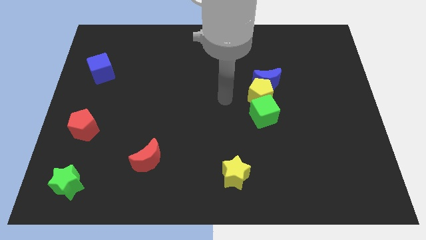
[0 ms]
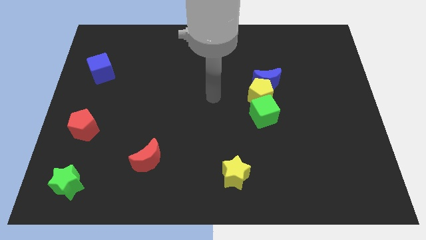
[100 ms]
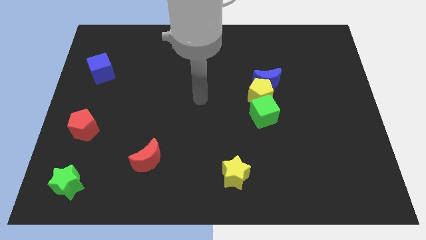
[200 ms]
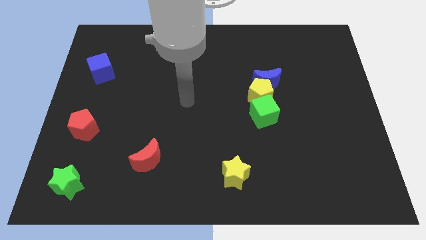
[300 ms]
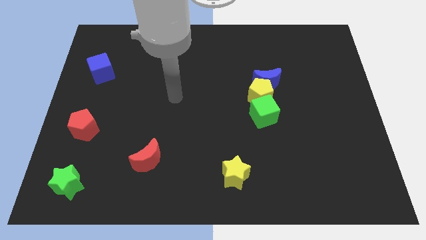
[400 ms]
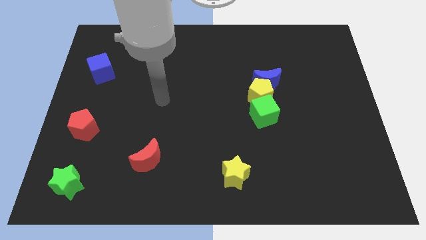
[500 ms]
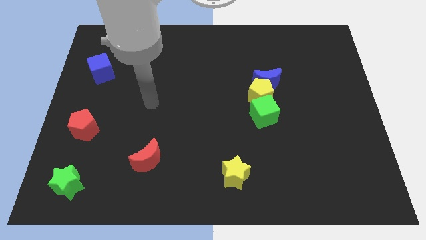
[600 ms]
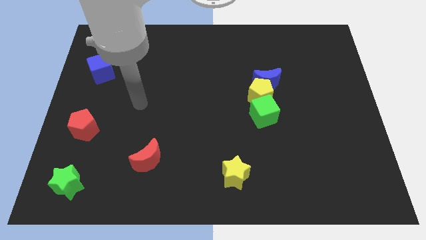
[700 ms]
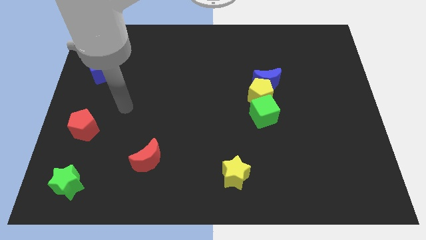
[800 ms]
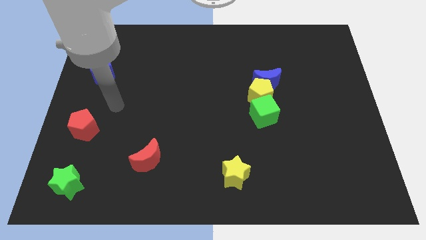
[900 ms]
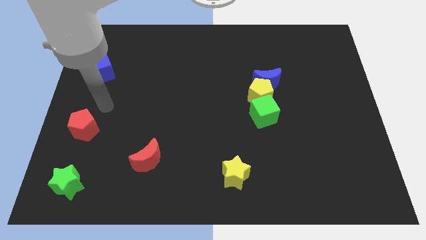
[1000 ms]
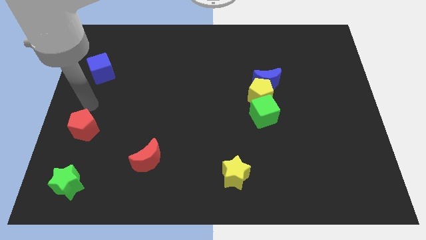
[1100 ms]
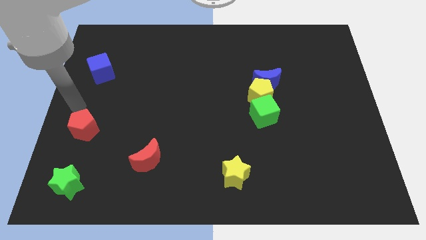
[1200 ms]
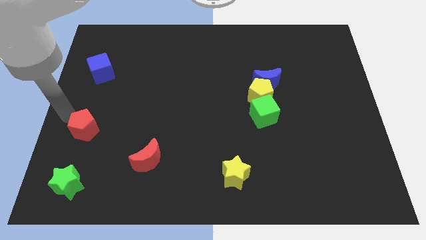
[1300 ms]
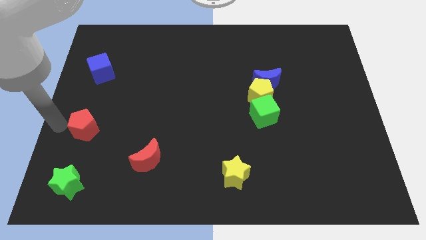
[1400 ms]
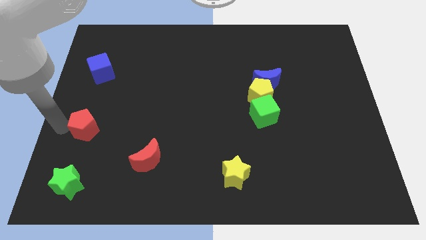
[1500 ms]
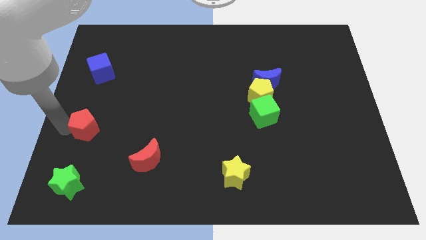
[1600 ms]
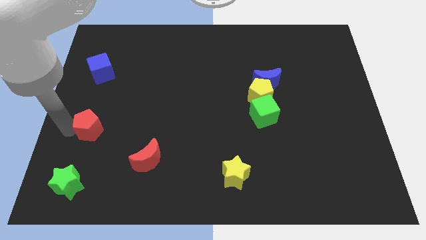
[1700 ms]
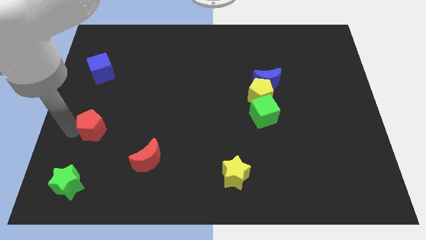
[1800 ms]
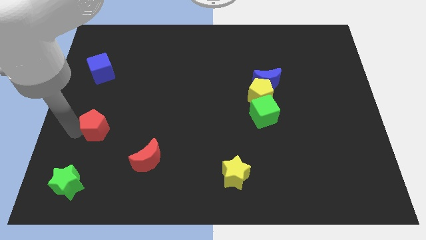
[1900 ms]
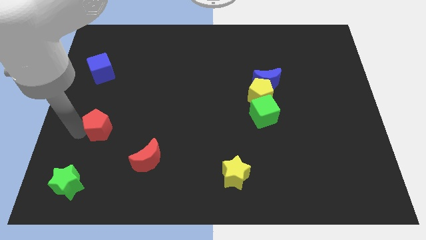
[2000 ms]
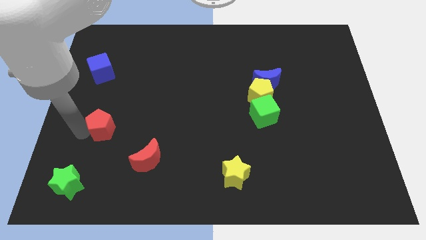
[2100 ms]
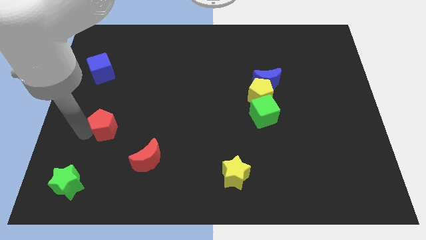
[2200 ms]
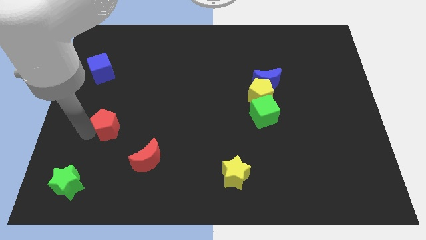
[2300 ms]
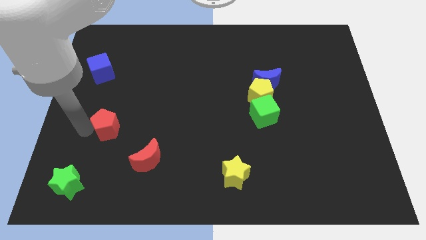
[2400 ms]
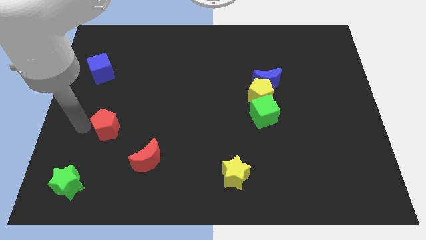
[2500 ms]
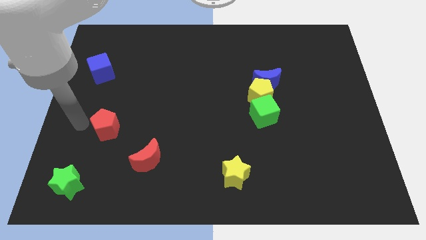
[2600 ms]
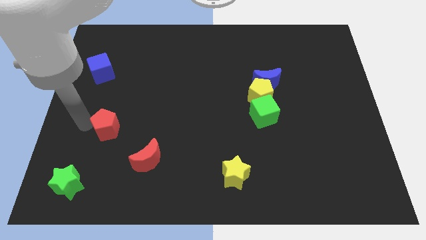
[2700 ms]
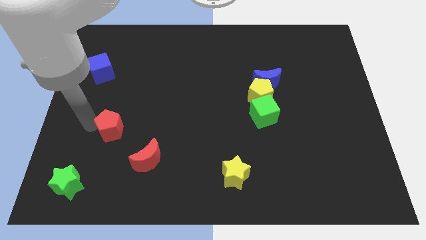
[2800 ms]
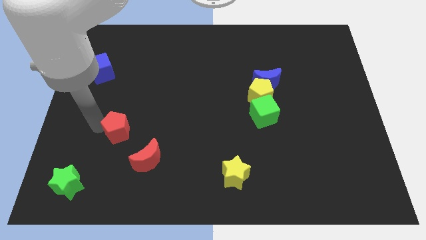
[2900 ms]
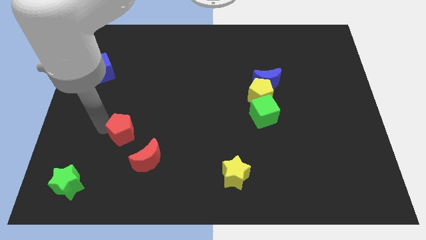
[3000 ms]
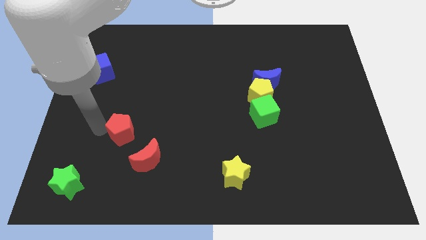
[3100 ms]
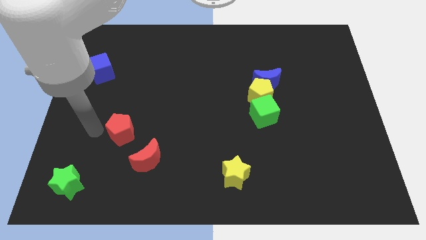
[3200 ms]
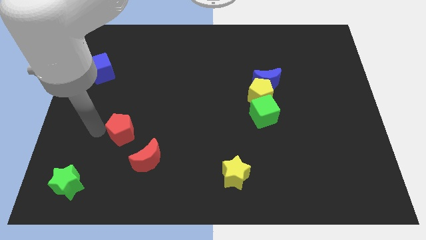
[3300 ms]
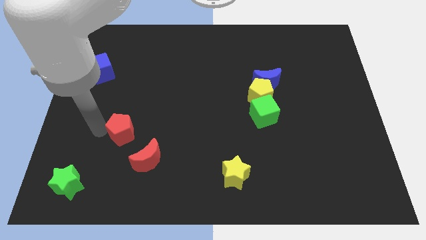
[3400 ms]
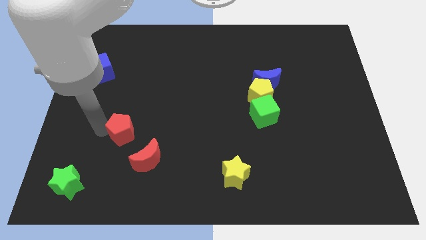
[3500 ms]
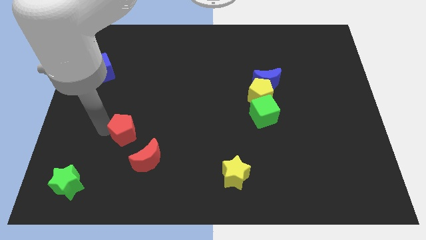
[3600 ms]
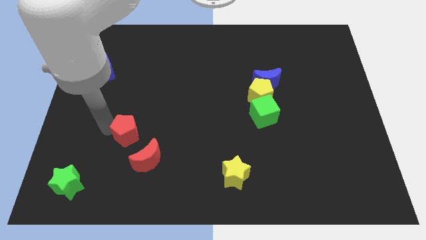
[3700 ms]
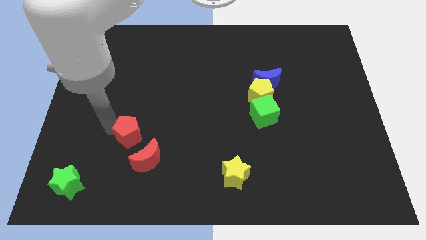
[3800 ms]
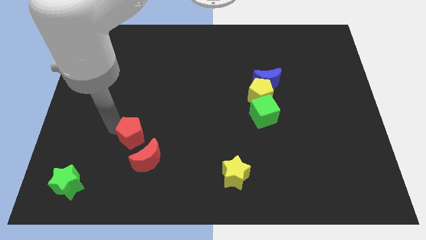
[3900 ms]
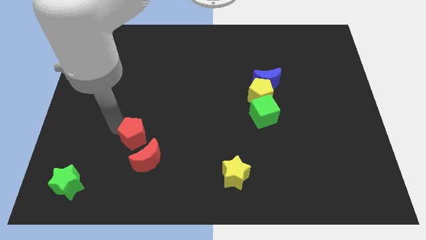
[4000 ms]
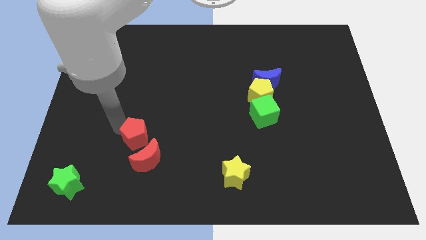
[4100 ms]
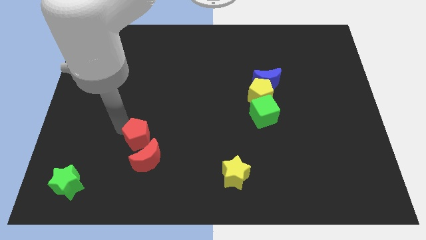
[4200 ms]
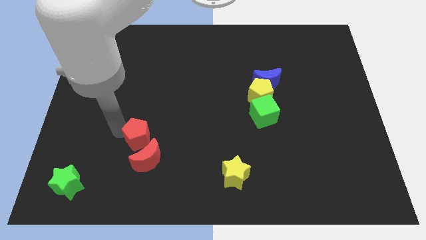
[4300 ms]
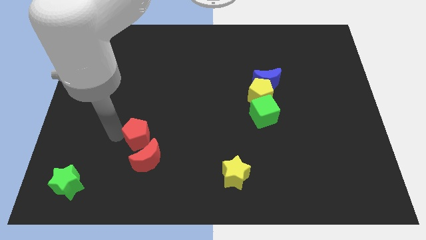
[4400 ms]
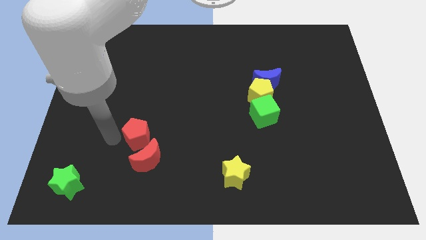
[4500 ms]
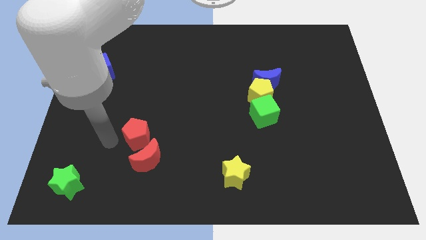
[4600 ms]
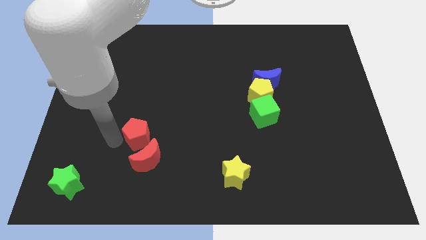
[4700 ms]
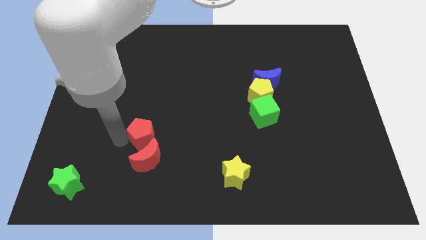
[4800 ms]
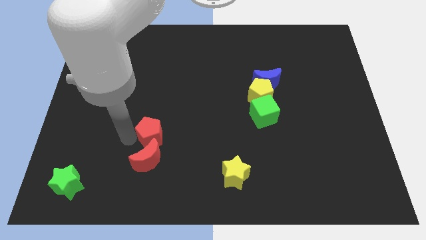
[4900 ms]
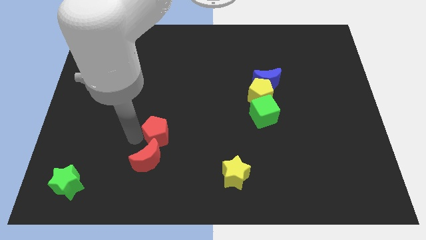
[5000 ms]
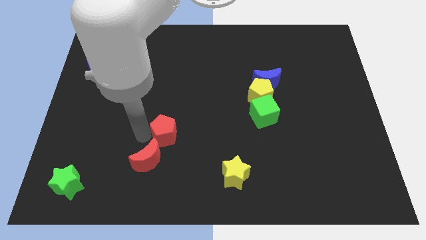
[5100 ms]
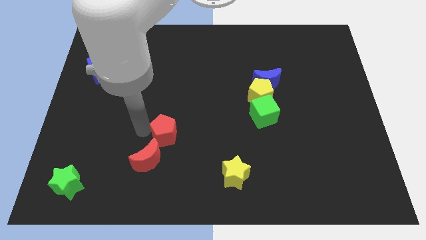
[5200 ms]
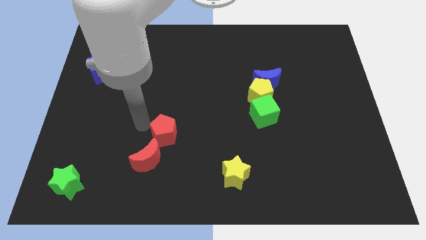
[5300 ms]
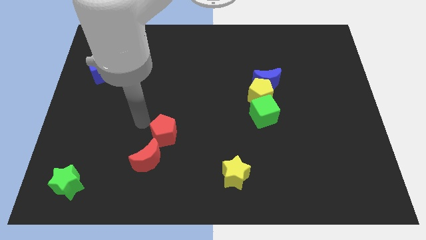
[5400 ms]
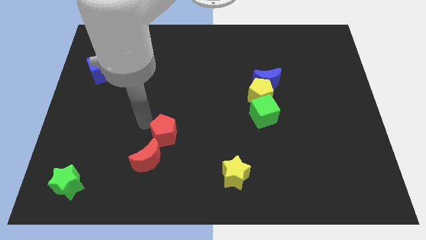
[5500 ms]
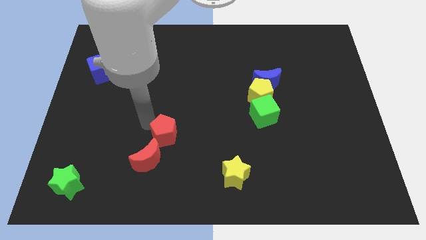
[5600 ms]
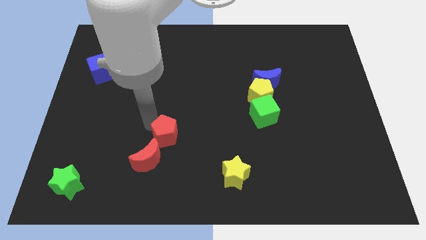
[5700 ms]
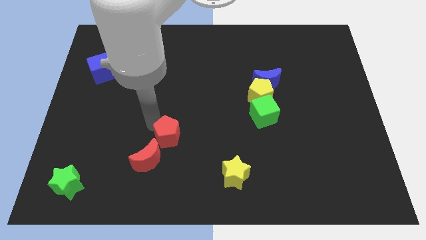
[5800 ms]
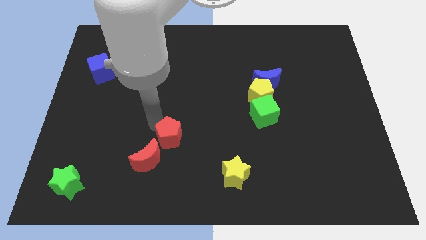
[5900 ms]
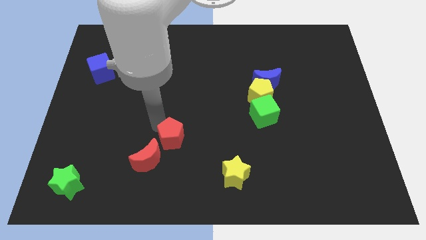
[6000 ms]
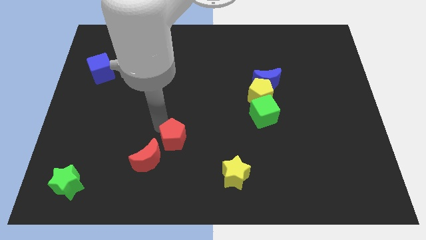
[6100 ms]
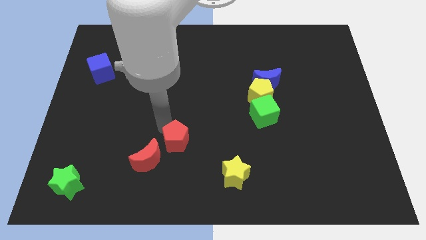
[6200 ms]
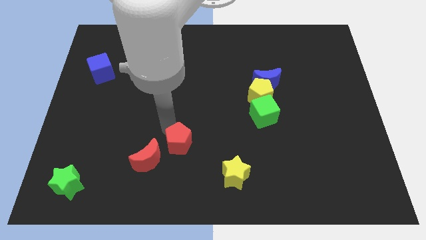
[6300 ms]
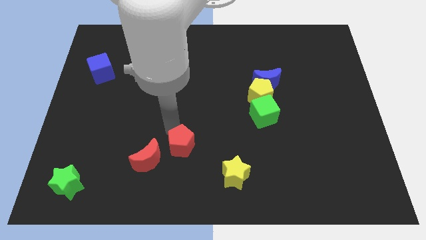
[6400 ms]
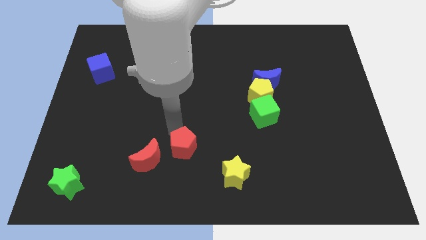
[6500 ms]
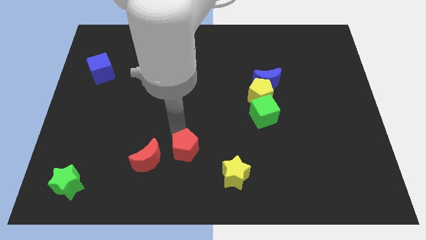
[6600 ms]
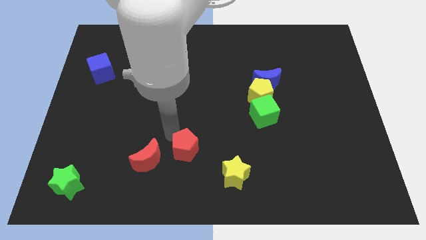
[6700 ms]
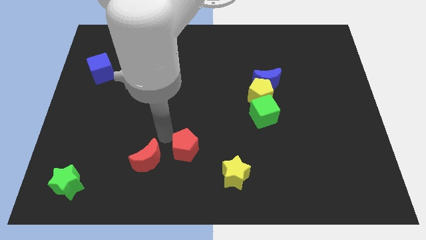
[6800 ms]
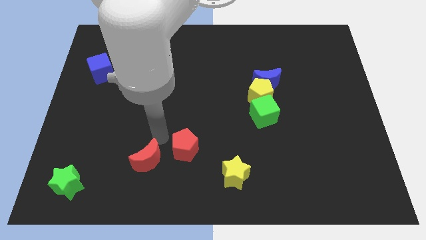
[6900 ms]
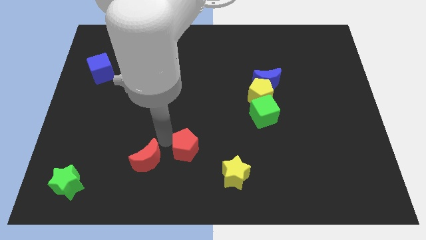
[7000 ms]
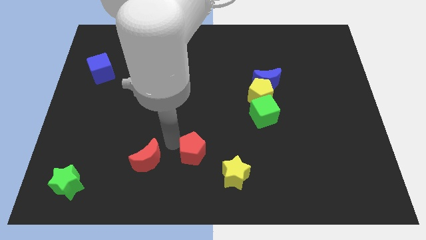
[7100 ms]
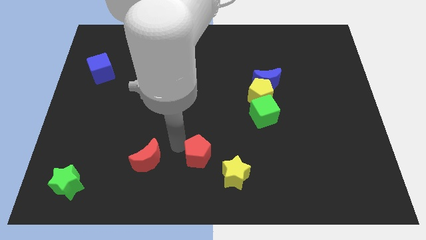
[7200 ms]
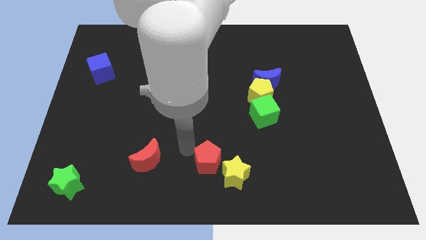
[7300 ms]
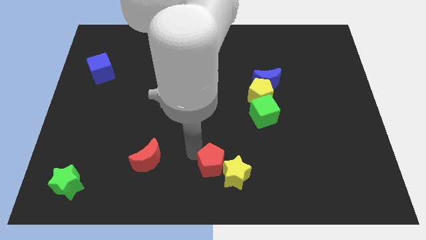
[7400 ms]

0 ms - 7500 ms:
push the red pentagon close to the yellow star
